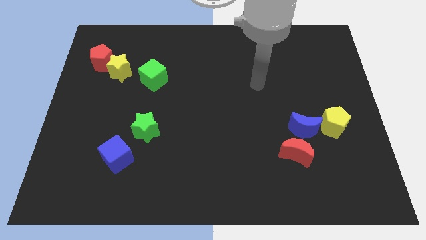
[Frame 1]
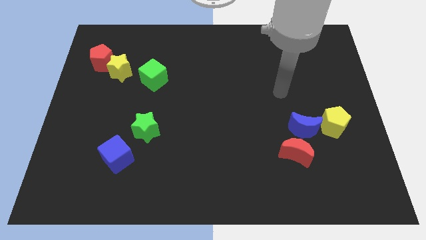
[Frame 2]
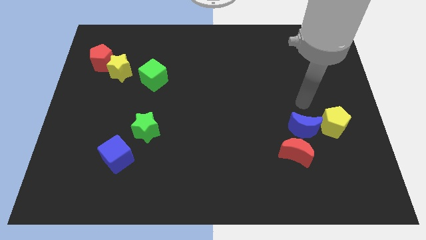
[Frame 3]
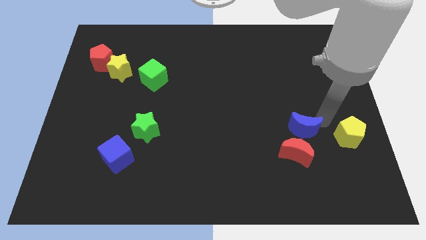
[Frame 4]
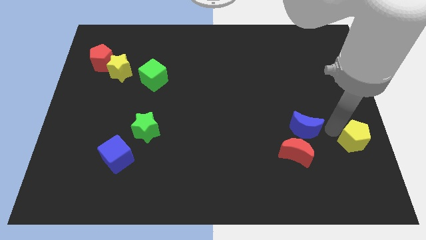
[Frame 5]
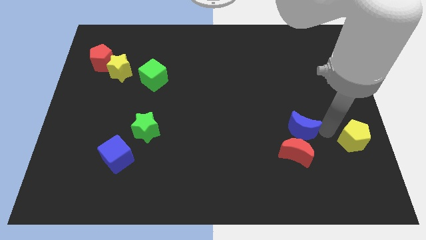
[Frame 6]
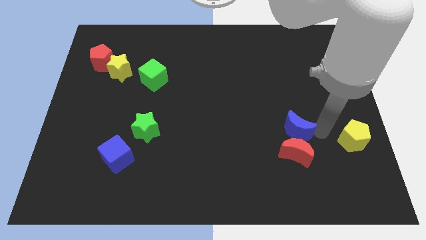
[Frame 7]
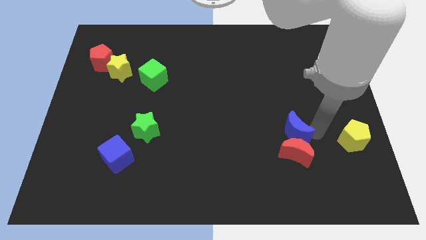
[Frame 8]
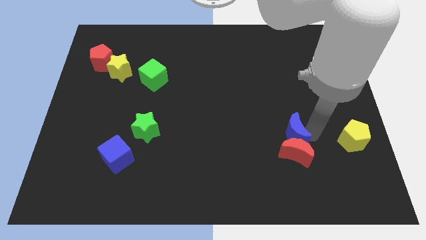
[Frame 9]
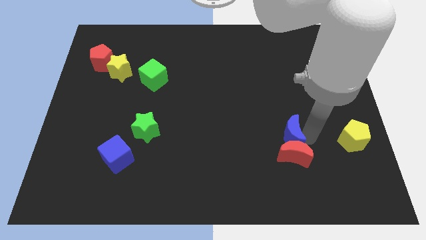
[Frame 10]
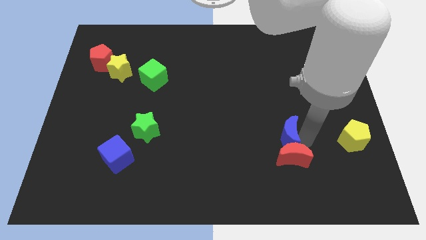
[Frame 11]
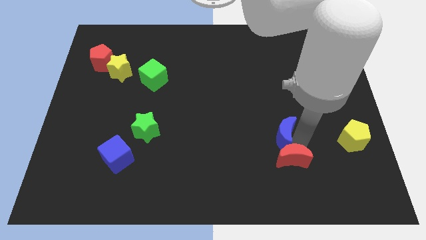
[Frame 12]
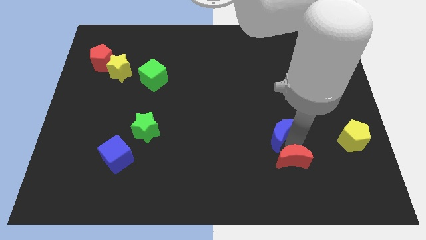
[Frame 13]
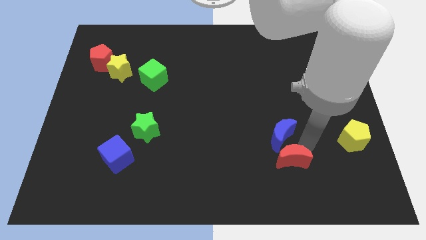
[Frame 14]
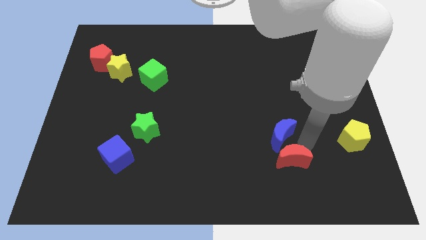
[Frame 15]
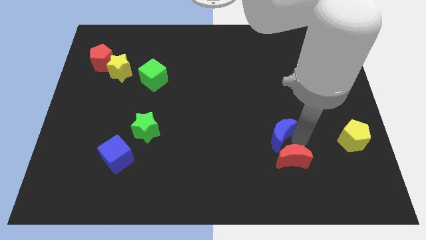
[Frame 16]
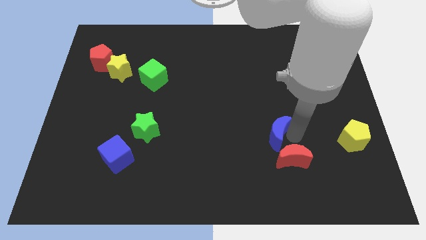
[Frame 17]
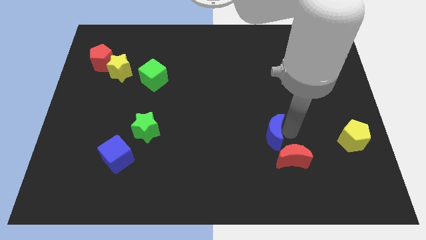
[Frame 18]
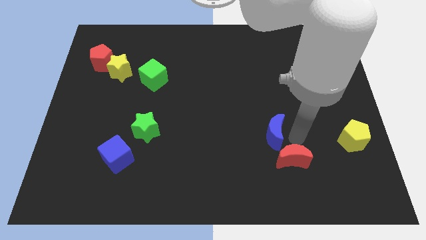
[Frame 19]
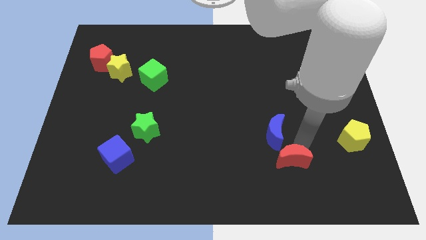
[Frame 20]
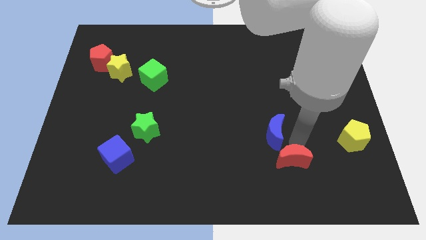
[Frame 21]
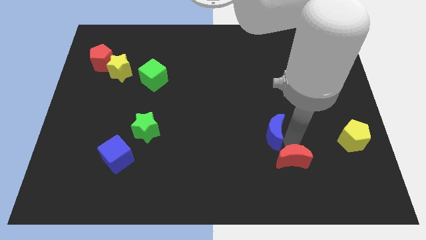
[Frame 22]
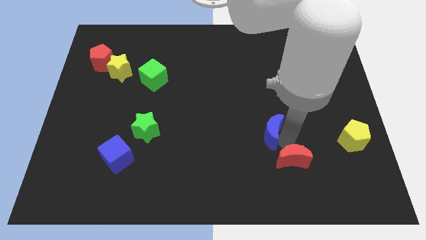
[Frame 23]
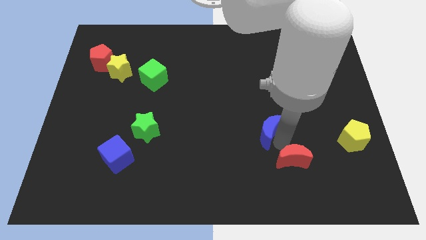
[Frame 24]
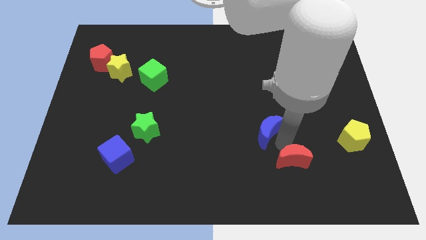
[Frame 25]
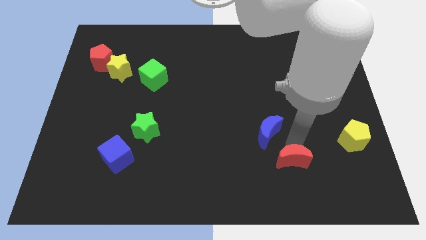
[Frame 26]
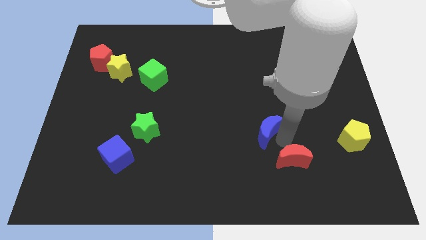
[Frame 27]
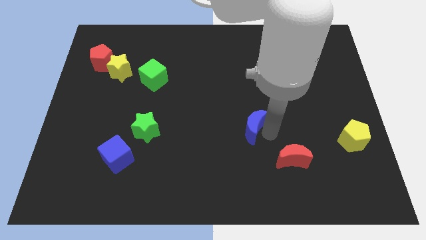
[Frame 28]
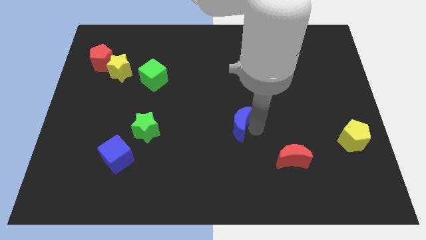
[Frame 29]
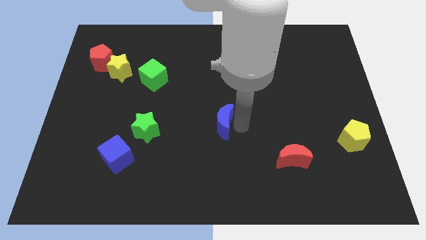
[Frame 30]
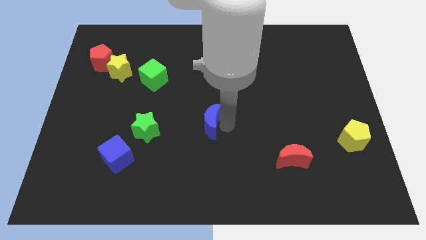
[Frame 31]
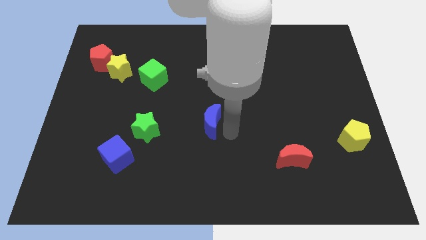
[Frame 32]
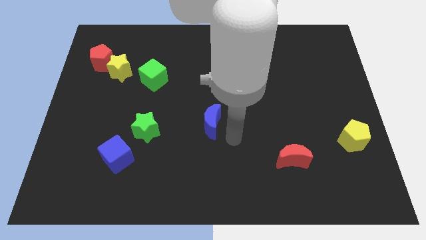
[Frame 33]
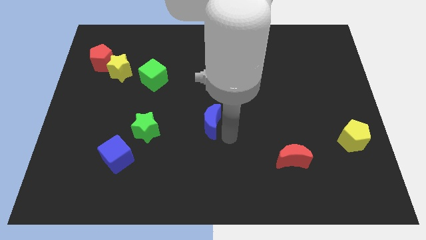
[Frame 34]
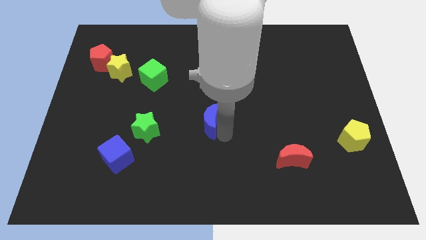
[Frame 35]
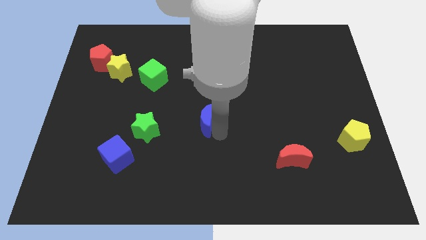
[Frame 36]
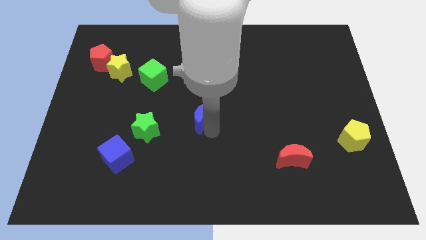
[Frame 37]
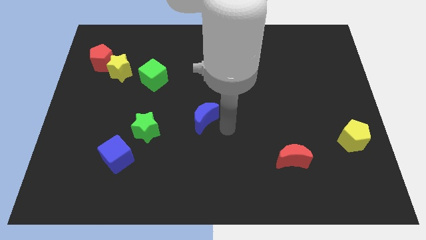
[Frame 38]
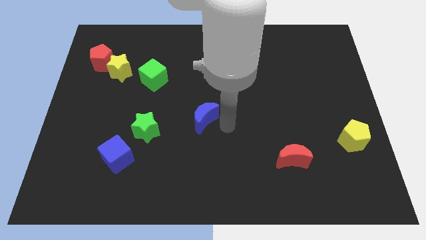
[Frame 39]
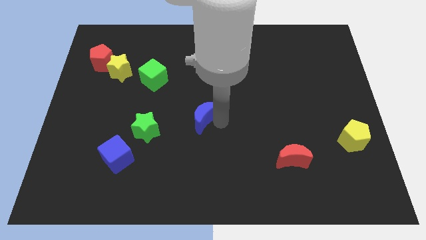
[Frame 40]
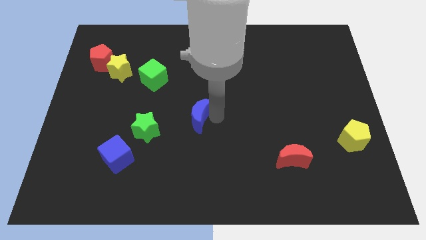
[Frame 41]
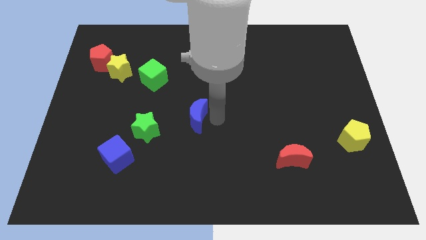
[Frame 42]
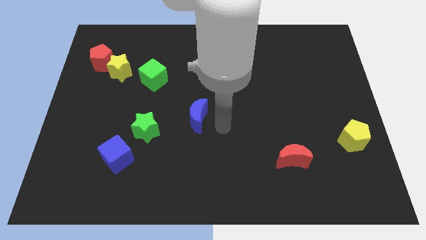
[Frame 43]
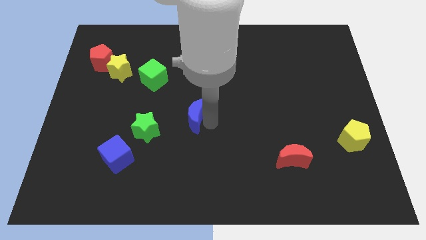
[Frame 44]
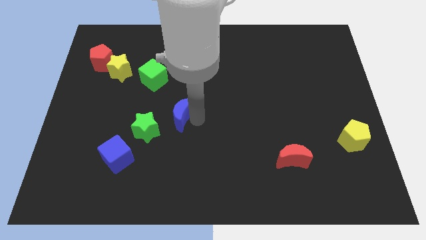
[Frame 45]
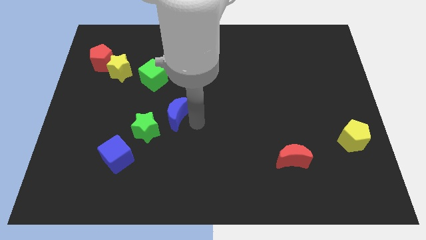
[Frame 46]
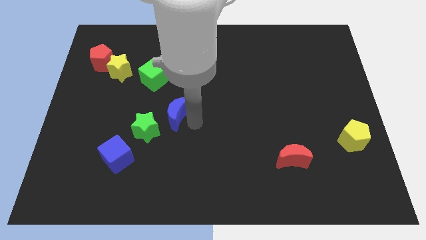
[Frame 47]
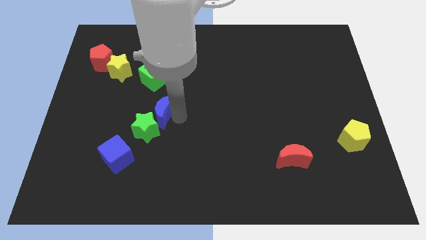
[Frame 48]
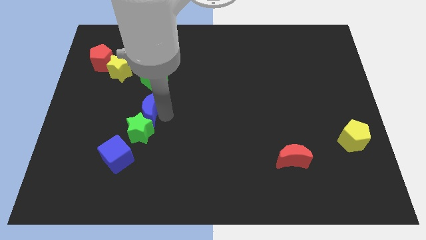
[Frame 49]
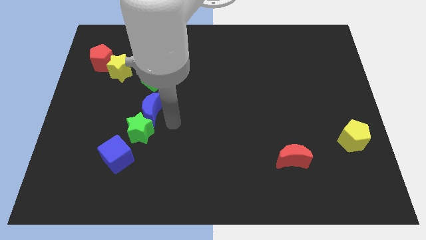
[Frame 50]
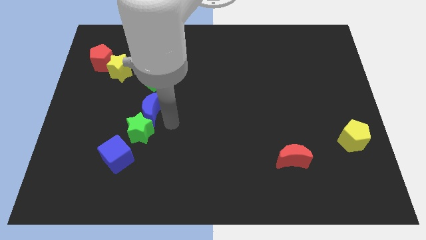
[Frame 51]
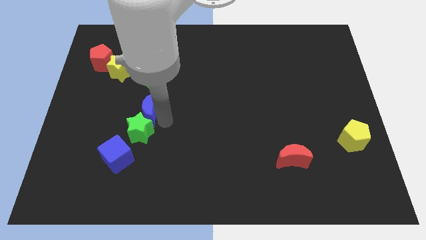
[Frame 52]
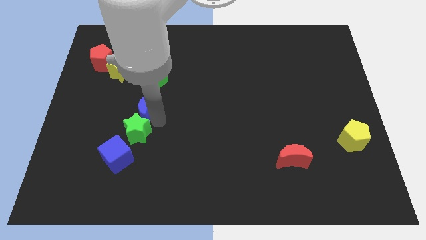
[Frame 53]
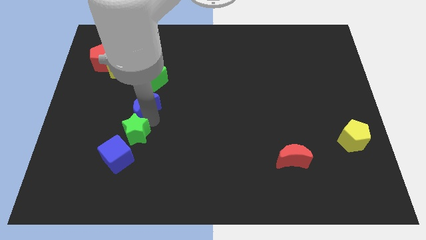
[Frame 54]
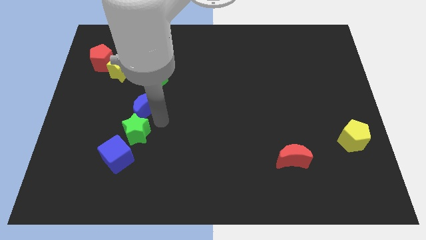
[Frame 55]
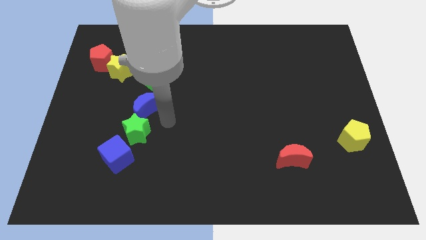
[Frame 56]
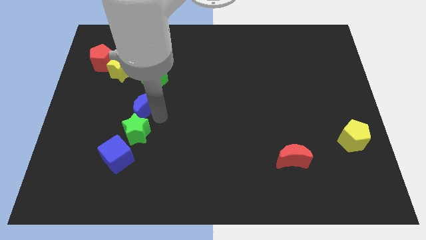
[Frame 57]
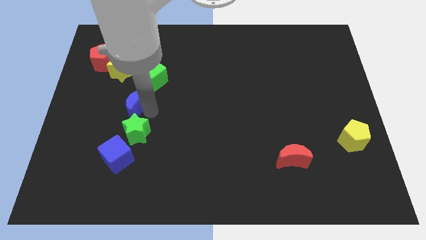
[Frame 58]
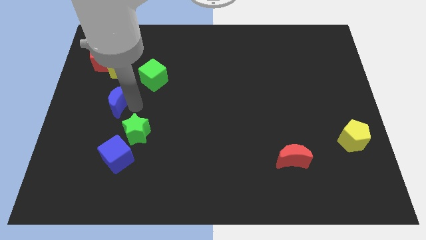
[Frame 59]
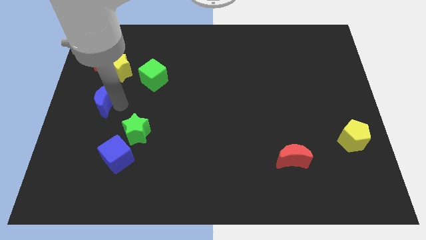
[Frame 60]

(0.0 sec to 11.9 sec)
move the blue moon to the bottom side of the red pentagon

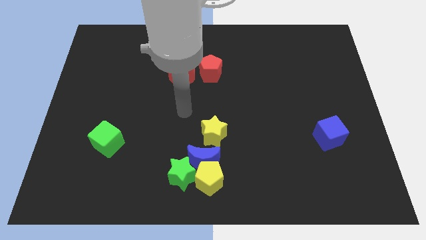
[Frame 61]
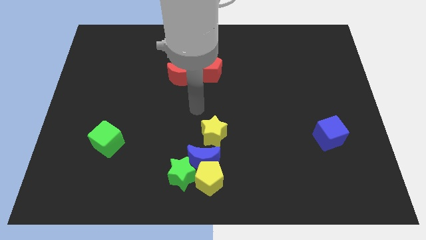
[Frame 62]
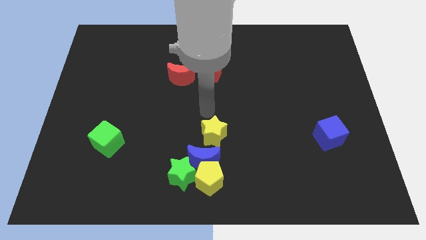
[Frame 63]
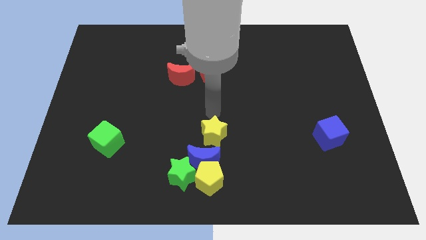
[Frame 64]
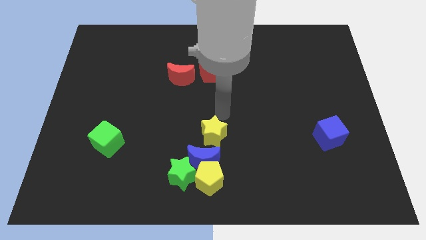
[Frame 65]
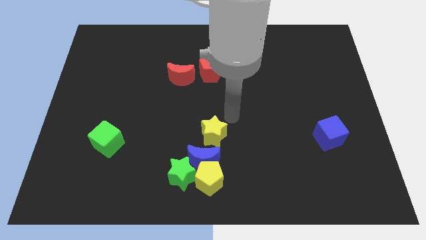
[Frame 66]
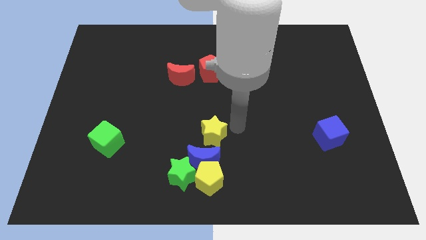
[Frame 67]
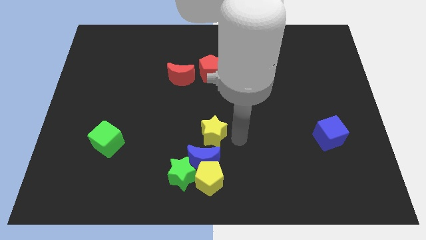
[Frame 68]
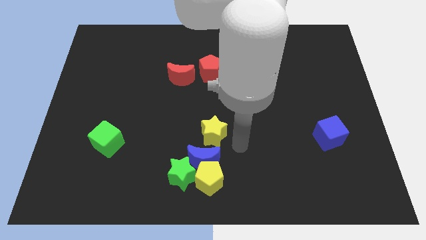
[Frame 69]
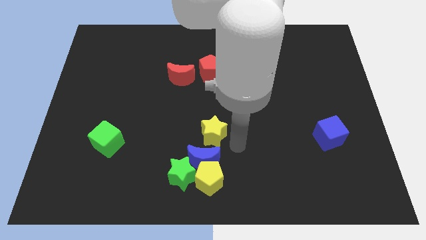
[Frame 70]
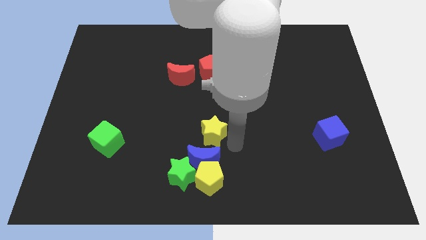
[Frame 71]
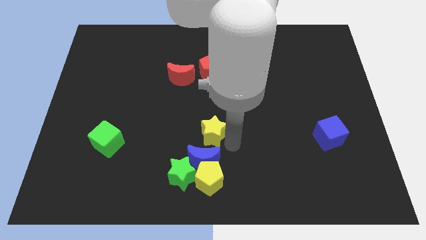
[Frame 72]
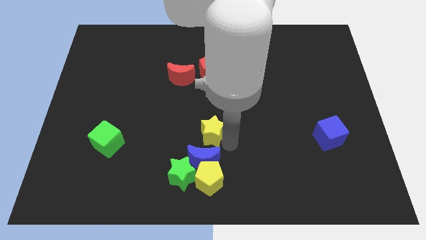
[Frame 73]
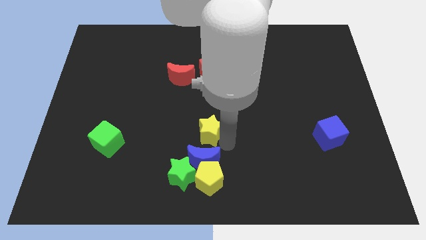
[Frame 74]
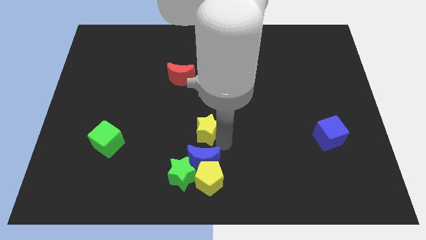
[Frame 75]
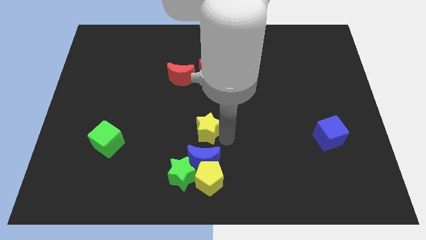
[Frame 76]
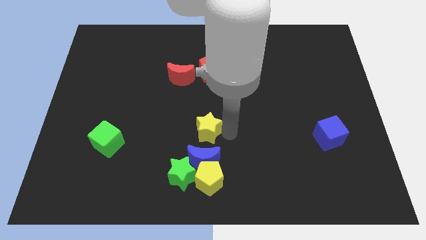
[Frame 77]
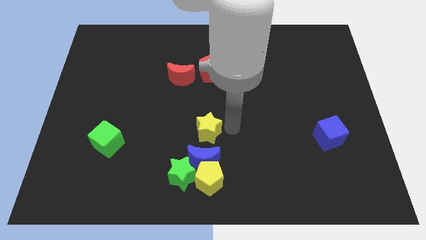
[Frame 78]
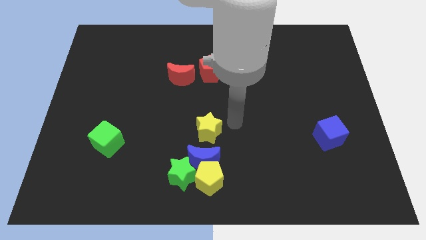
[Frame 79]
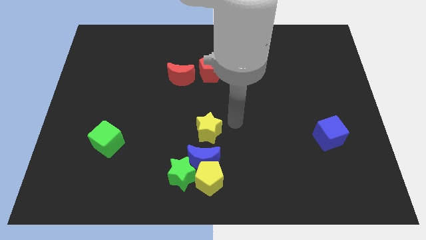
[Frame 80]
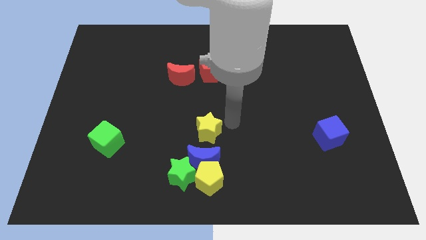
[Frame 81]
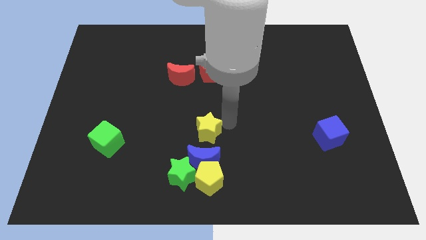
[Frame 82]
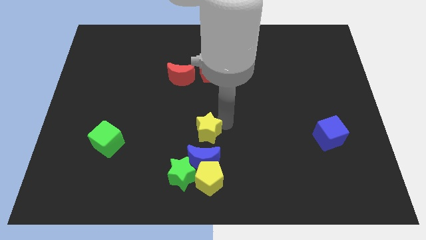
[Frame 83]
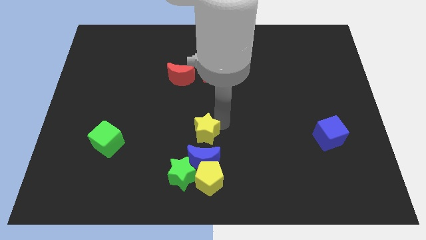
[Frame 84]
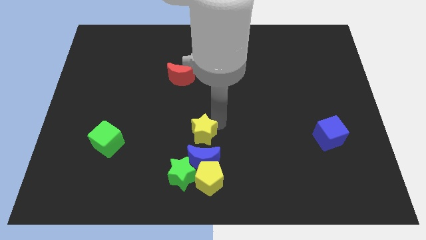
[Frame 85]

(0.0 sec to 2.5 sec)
put the yellow star diagonally up and to the left of the blue moon
